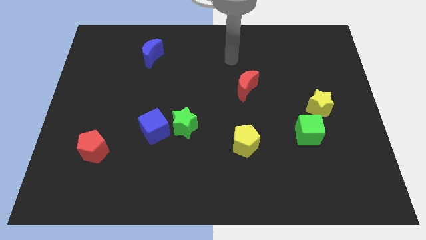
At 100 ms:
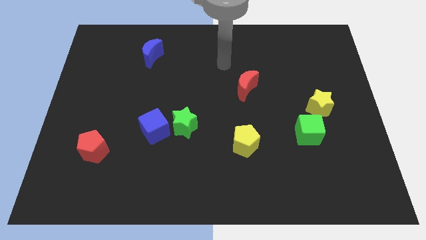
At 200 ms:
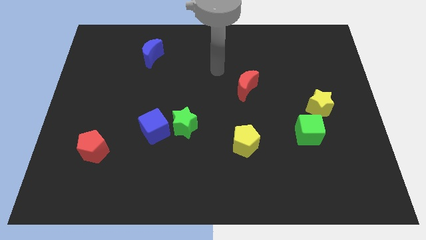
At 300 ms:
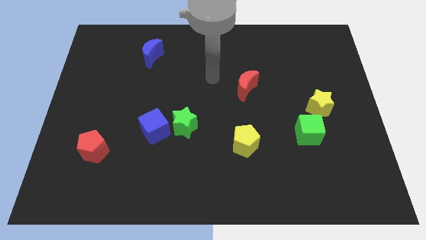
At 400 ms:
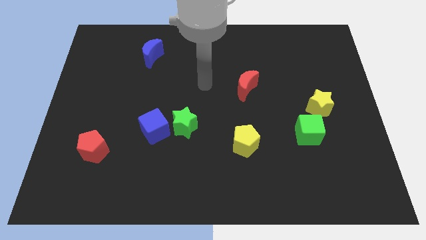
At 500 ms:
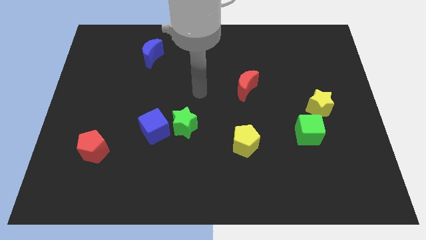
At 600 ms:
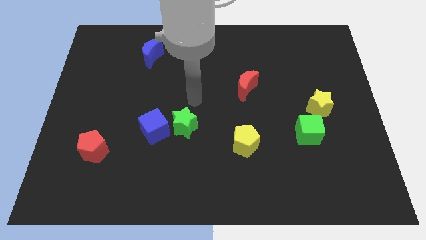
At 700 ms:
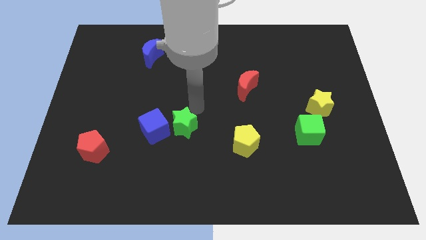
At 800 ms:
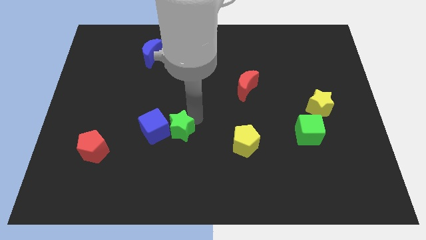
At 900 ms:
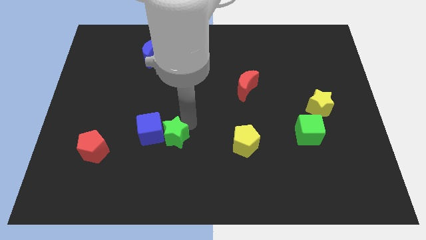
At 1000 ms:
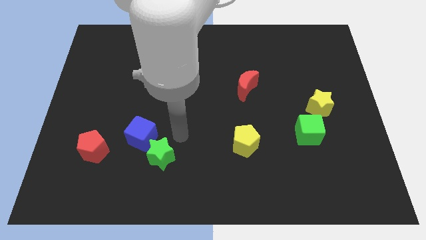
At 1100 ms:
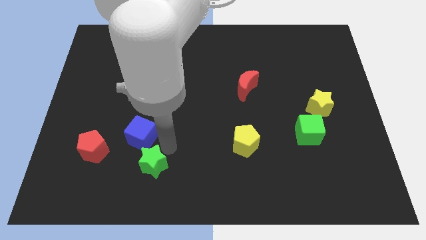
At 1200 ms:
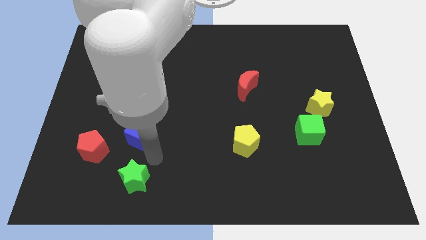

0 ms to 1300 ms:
separate the blue cube from the green star

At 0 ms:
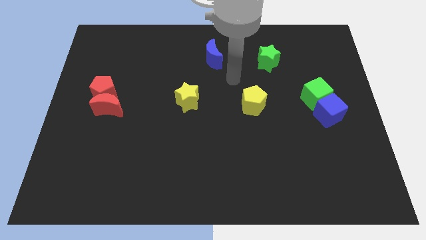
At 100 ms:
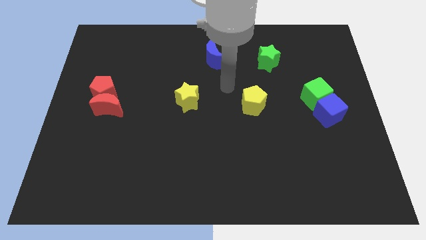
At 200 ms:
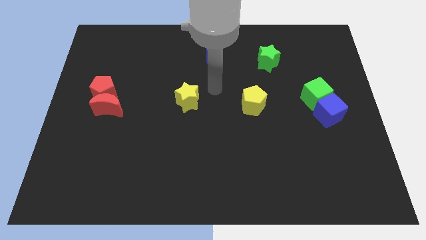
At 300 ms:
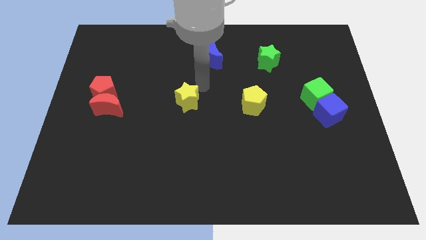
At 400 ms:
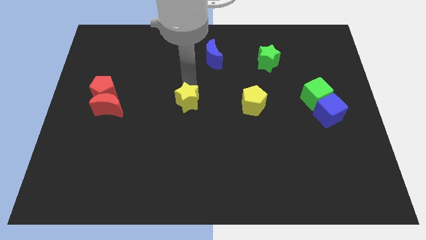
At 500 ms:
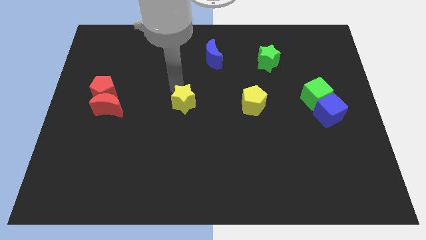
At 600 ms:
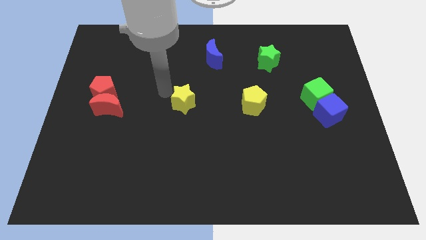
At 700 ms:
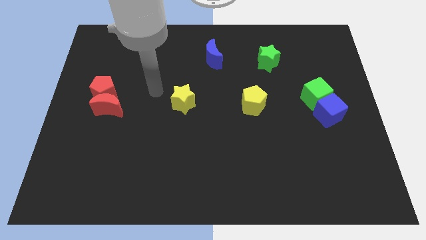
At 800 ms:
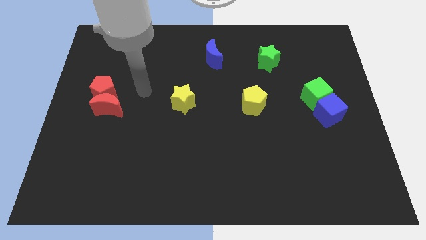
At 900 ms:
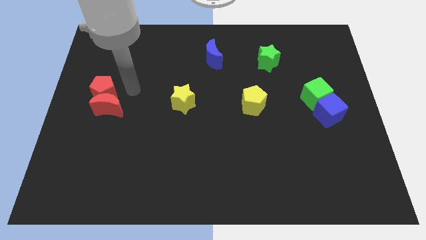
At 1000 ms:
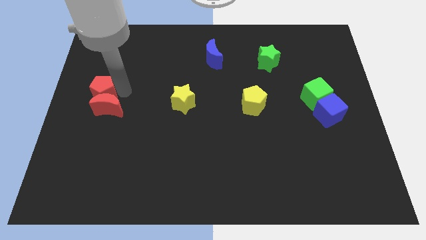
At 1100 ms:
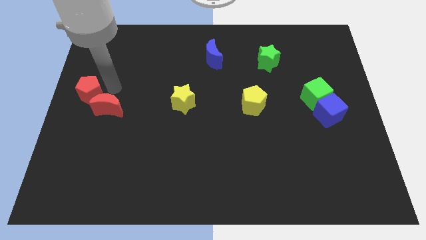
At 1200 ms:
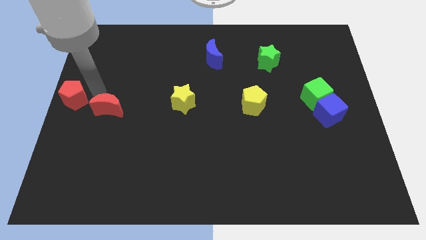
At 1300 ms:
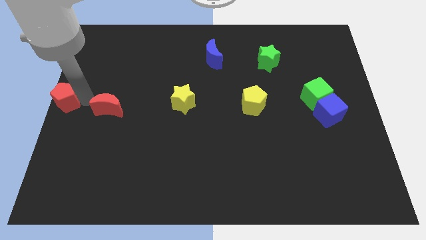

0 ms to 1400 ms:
pull the red moon apart from the red pentagon

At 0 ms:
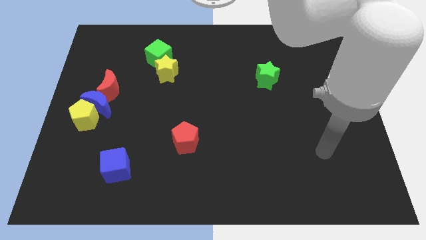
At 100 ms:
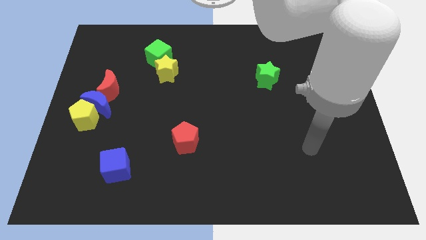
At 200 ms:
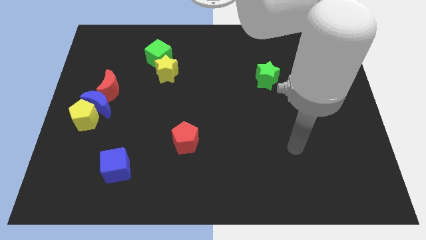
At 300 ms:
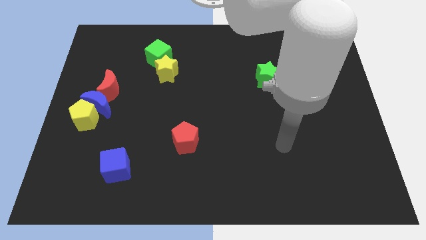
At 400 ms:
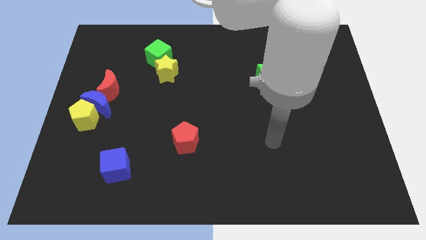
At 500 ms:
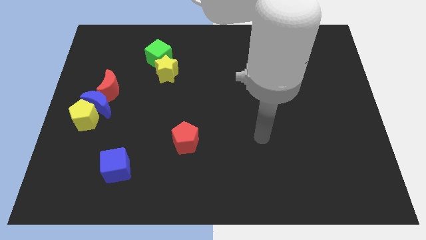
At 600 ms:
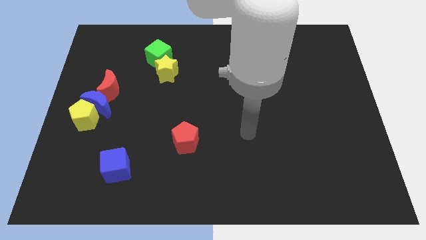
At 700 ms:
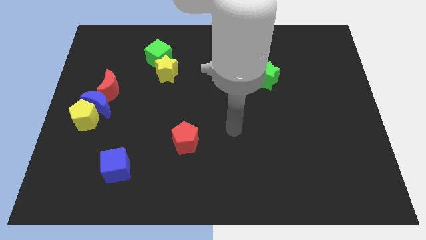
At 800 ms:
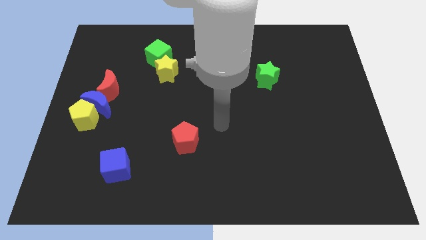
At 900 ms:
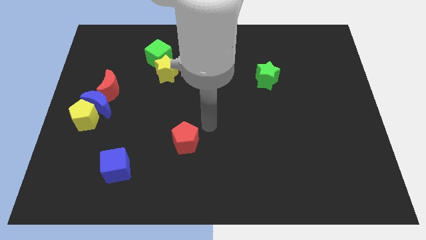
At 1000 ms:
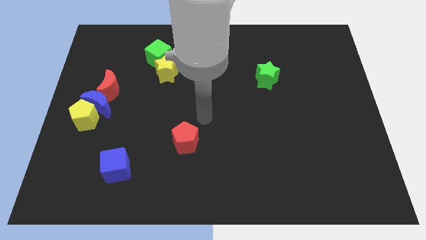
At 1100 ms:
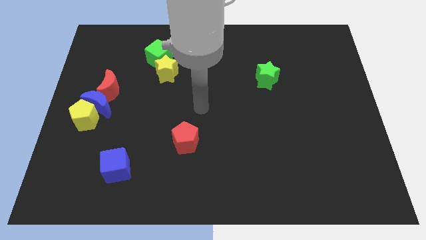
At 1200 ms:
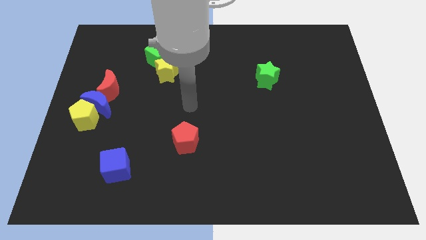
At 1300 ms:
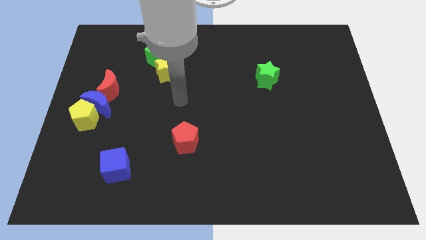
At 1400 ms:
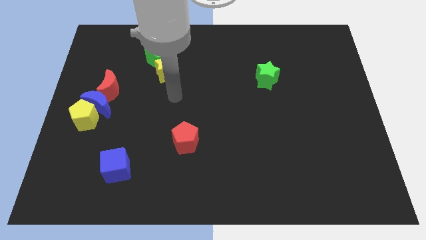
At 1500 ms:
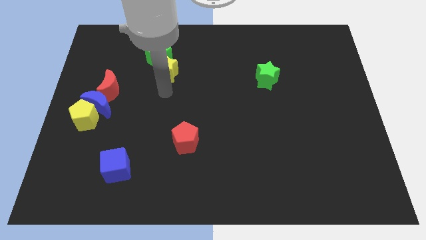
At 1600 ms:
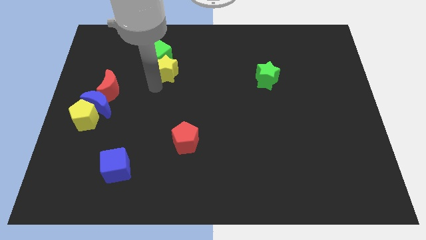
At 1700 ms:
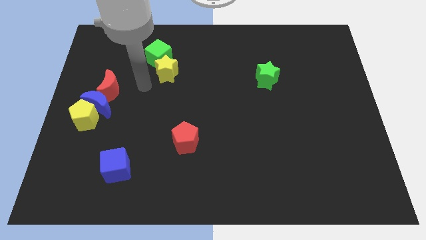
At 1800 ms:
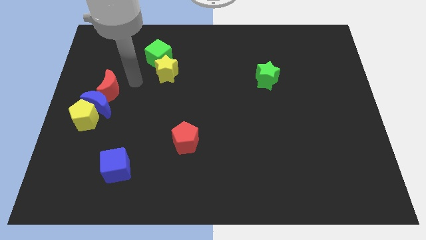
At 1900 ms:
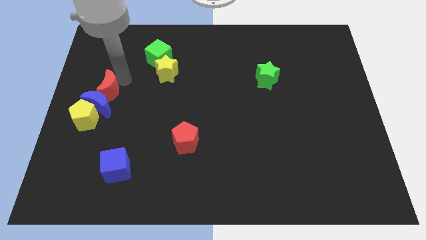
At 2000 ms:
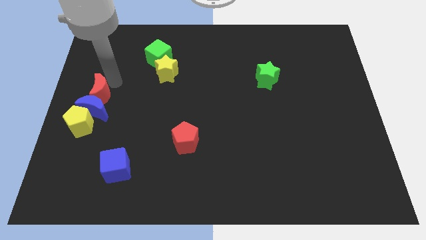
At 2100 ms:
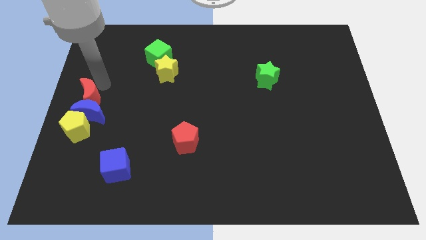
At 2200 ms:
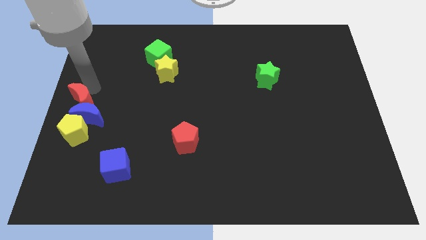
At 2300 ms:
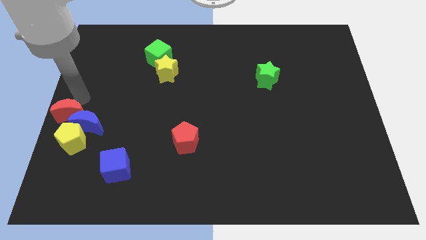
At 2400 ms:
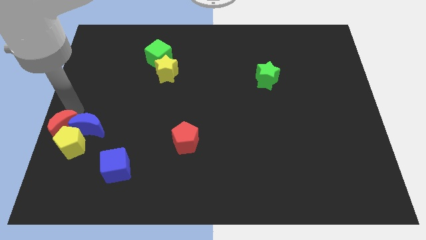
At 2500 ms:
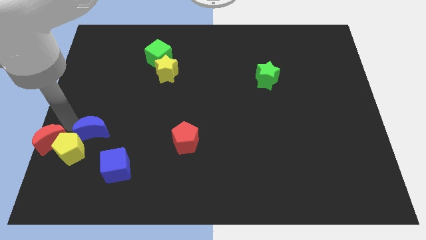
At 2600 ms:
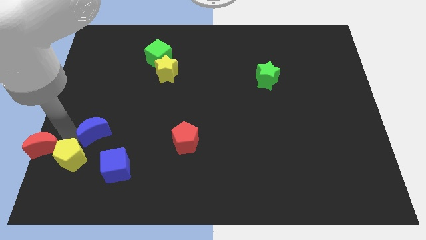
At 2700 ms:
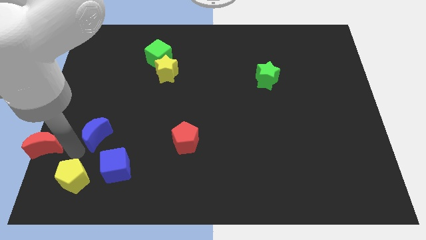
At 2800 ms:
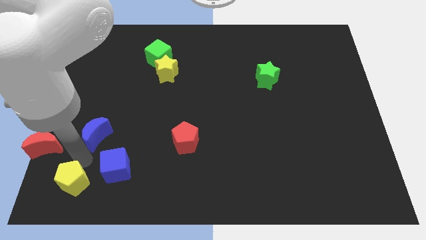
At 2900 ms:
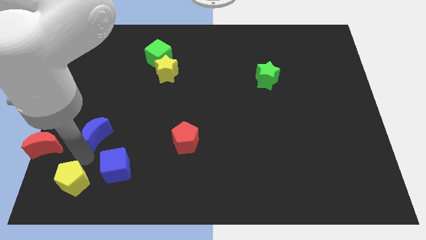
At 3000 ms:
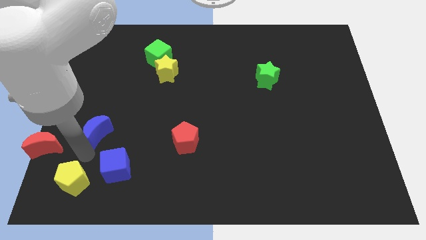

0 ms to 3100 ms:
pull the blue moon apart from the yellow pentagon and red moon

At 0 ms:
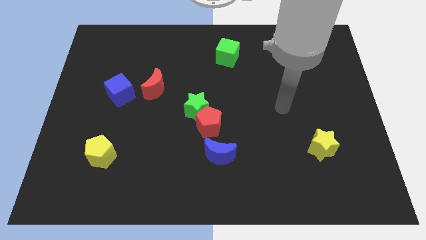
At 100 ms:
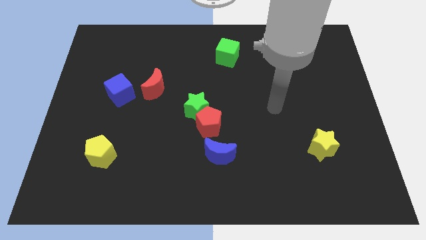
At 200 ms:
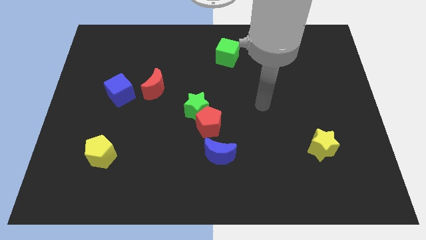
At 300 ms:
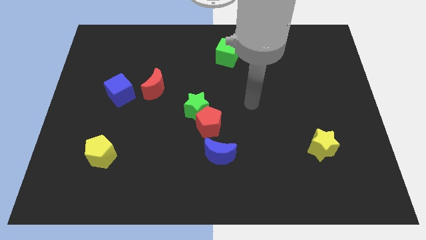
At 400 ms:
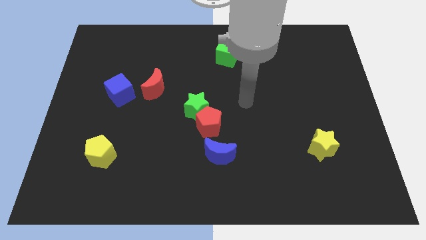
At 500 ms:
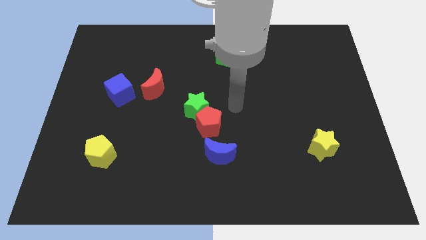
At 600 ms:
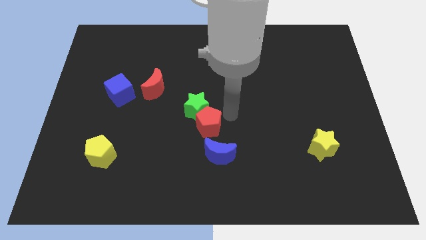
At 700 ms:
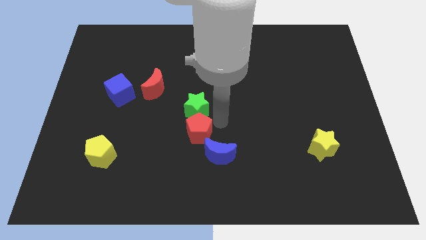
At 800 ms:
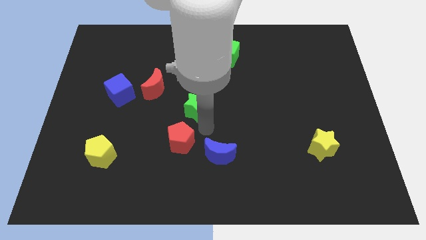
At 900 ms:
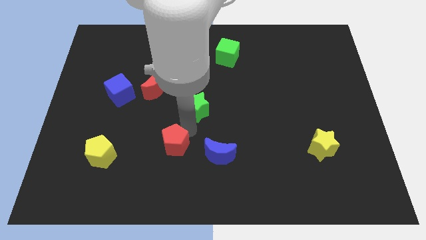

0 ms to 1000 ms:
move the green star away from the red pentagon

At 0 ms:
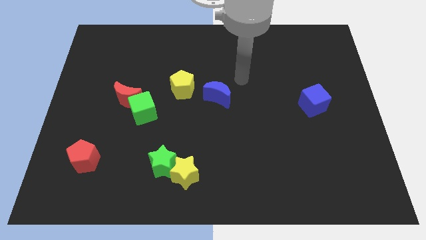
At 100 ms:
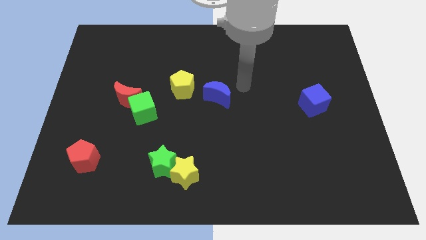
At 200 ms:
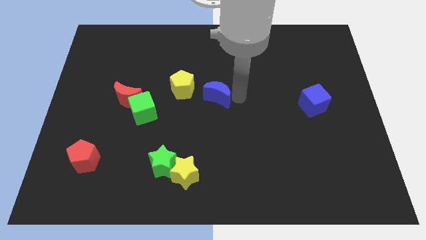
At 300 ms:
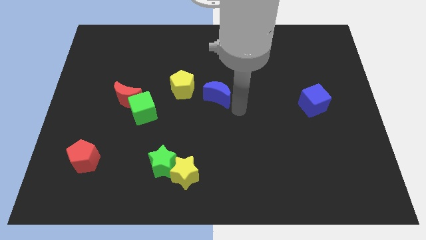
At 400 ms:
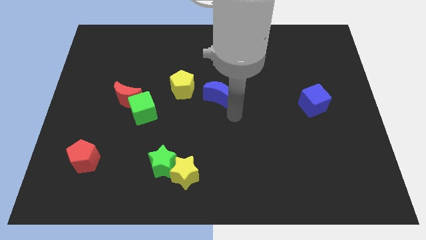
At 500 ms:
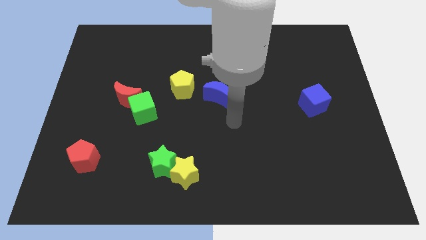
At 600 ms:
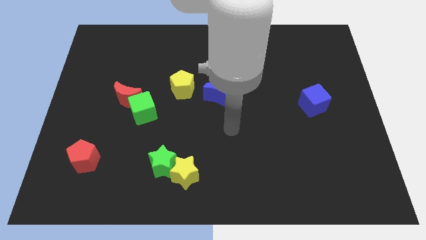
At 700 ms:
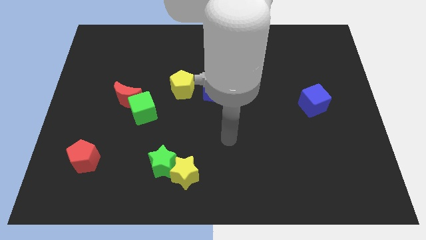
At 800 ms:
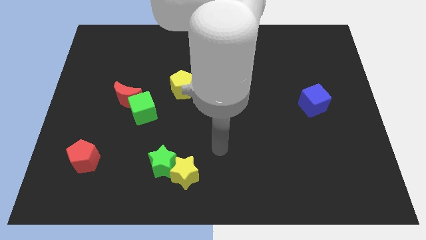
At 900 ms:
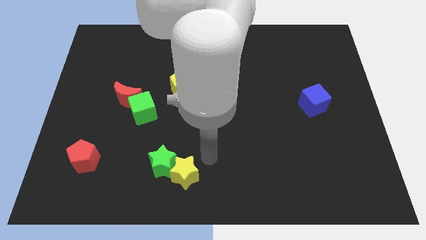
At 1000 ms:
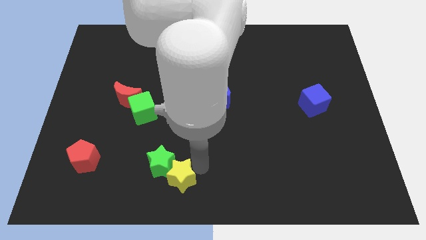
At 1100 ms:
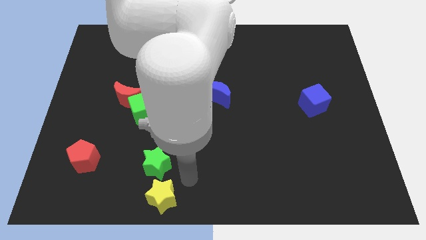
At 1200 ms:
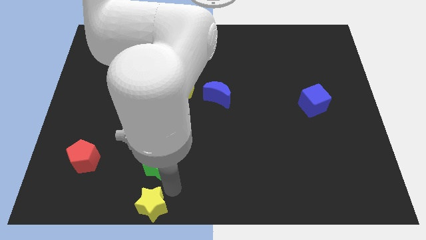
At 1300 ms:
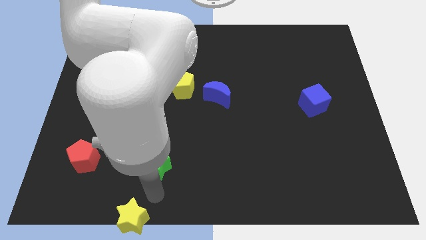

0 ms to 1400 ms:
move the green star away from the yellow star

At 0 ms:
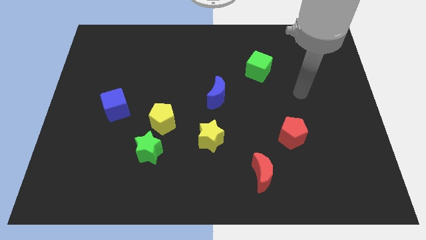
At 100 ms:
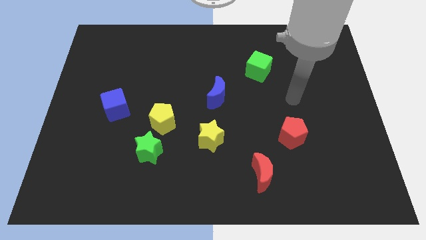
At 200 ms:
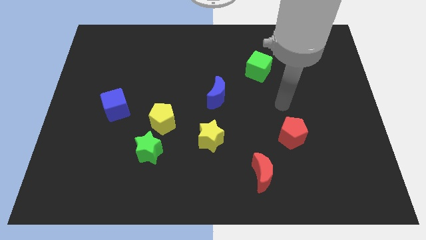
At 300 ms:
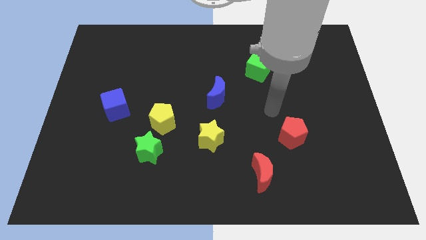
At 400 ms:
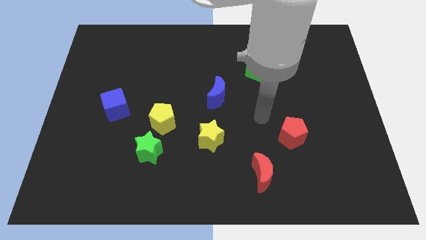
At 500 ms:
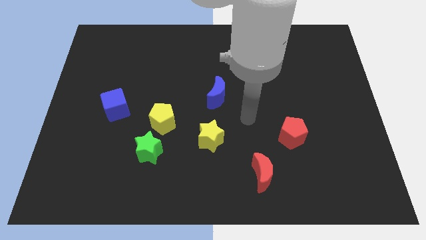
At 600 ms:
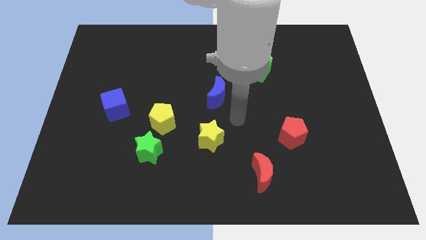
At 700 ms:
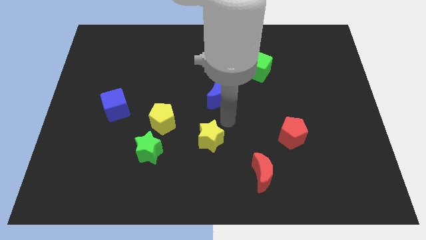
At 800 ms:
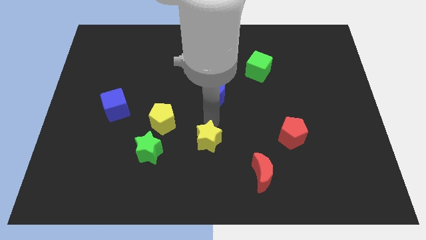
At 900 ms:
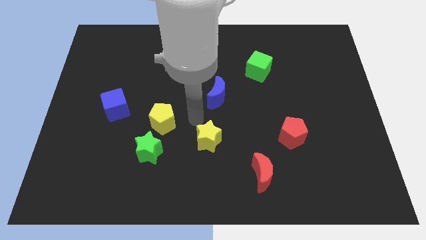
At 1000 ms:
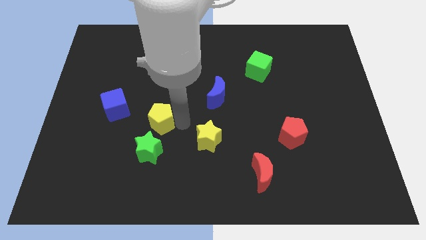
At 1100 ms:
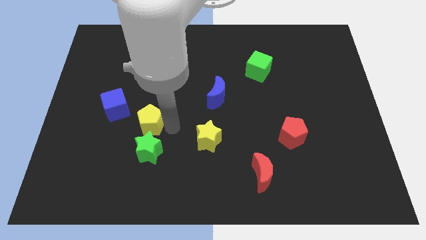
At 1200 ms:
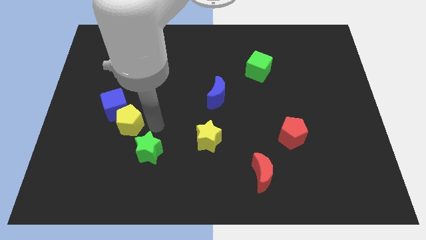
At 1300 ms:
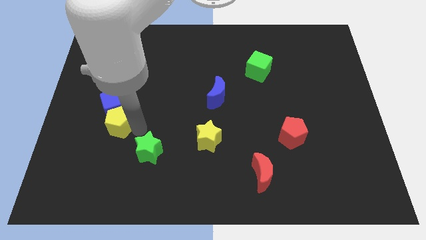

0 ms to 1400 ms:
pull the green star apart from the yellow pentagon
